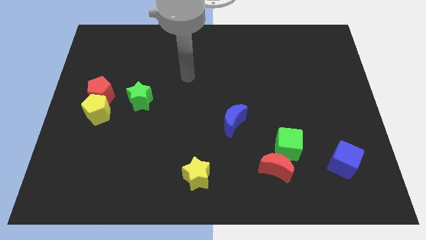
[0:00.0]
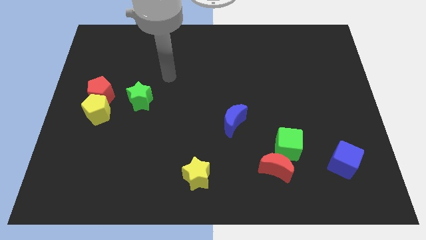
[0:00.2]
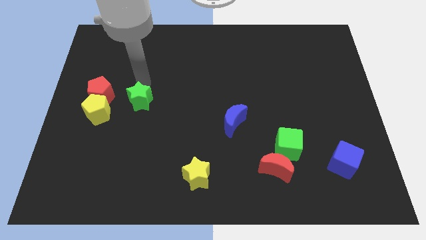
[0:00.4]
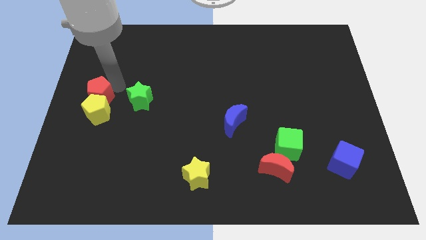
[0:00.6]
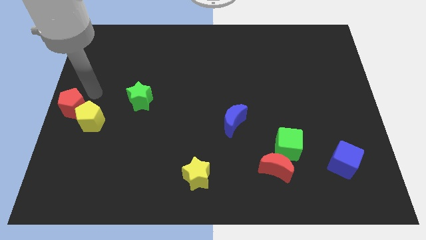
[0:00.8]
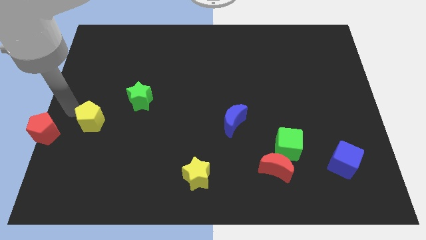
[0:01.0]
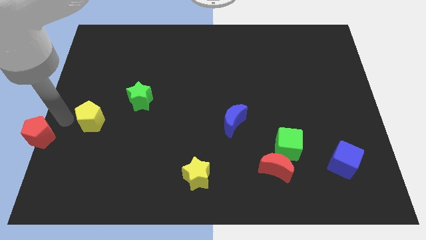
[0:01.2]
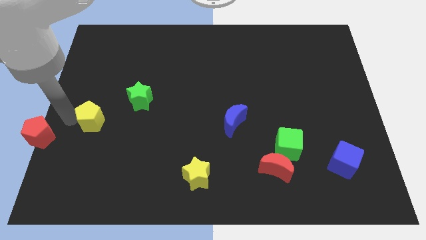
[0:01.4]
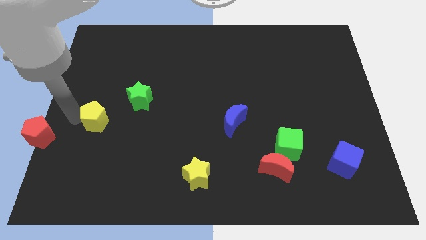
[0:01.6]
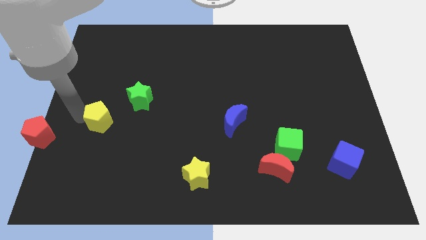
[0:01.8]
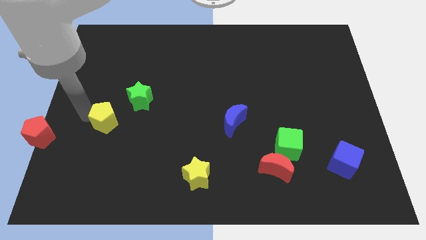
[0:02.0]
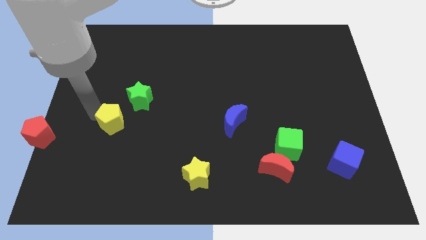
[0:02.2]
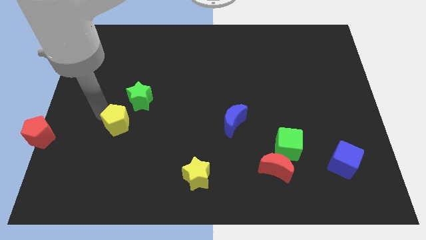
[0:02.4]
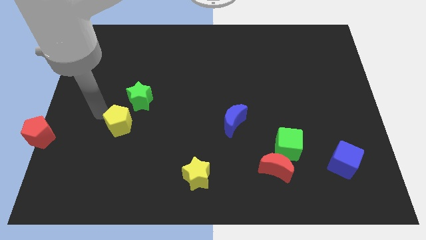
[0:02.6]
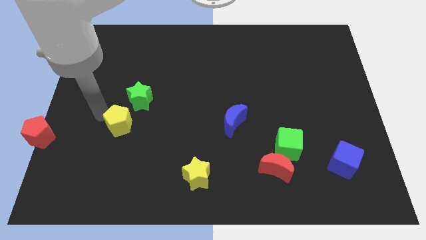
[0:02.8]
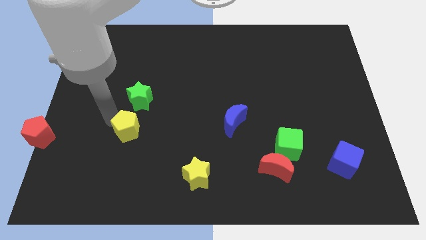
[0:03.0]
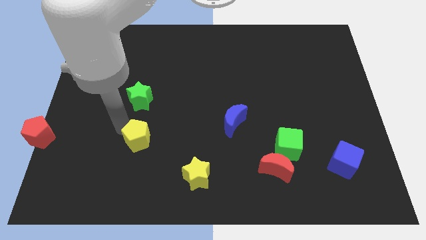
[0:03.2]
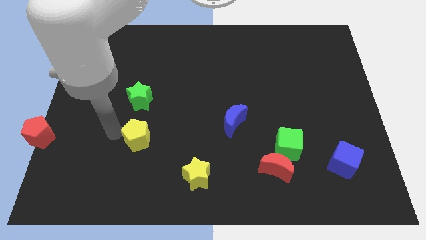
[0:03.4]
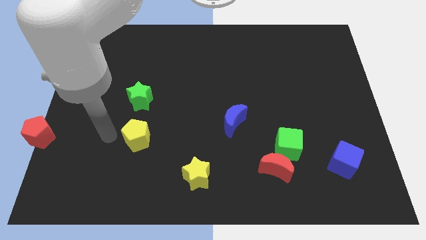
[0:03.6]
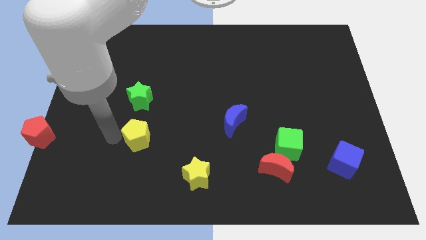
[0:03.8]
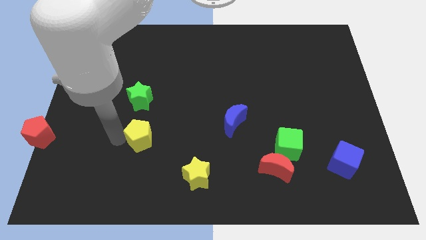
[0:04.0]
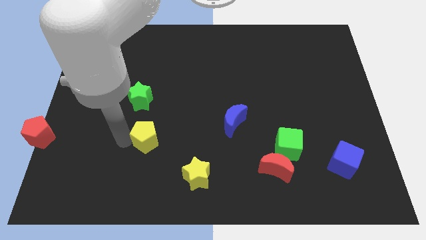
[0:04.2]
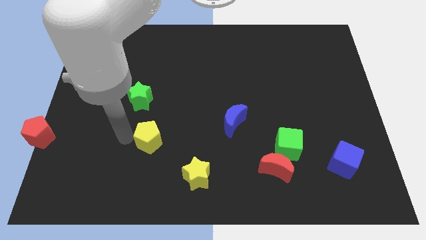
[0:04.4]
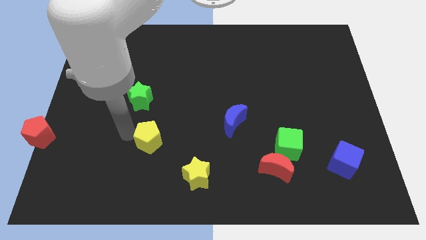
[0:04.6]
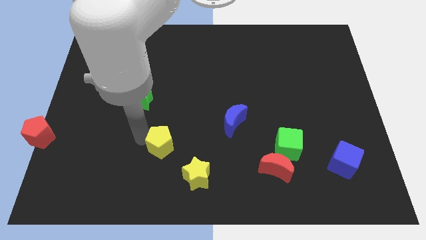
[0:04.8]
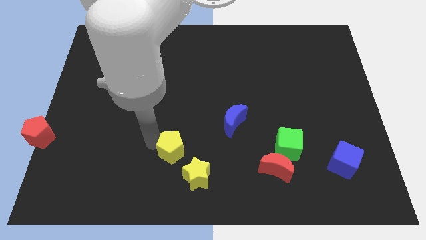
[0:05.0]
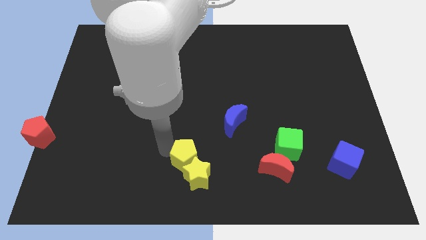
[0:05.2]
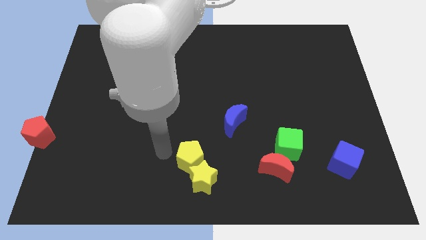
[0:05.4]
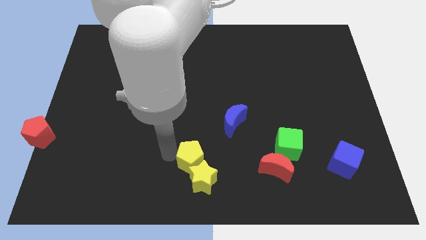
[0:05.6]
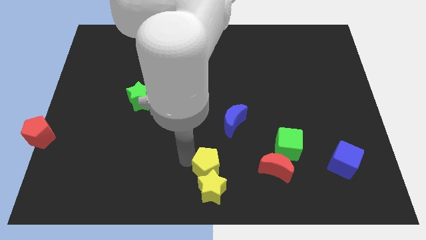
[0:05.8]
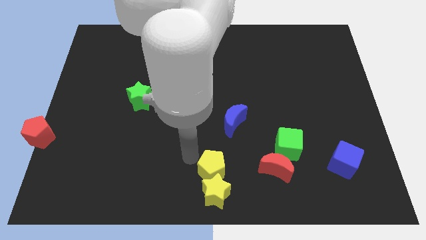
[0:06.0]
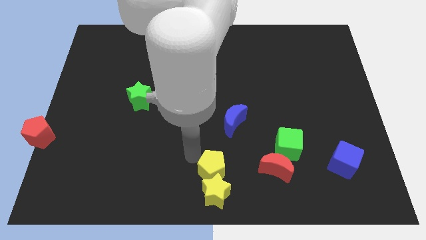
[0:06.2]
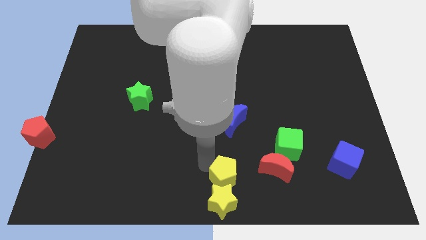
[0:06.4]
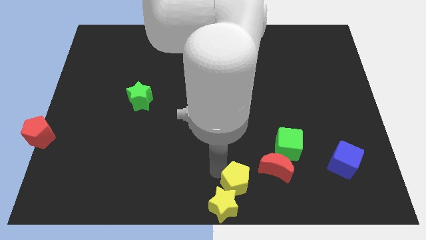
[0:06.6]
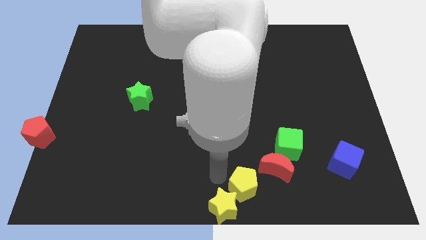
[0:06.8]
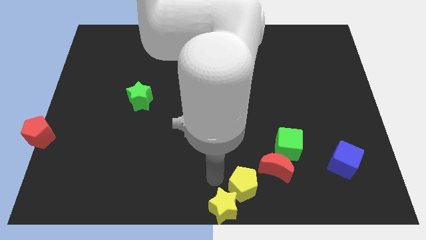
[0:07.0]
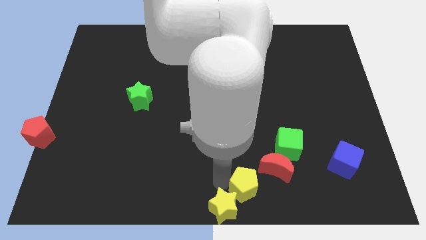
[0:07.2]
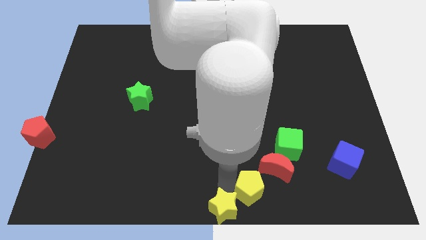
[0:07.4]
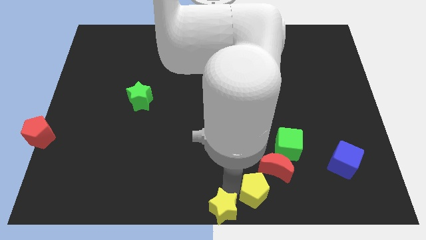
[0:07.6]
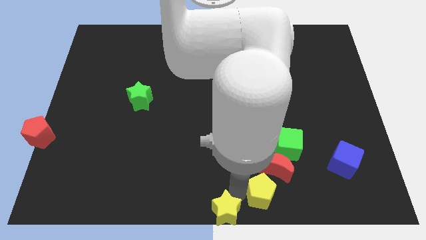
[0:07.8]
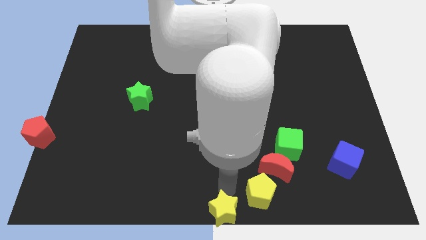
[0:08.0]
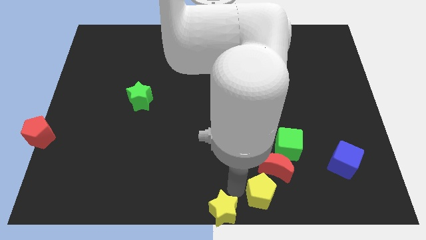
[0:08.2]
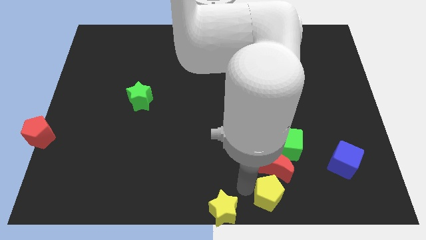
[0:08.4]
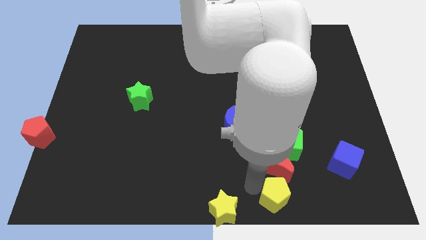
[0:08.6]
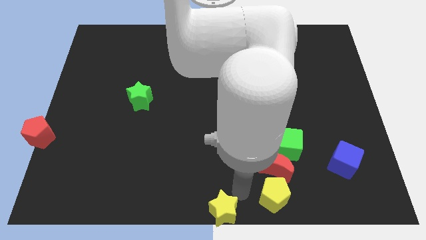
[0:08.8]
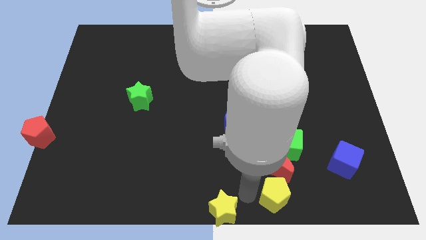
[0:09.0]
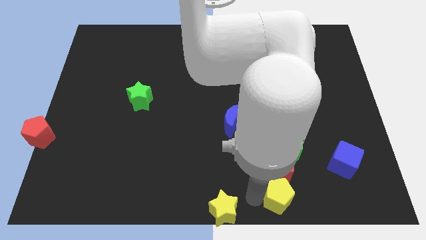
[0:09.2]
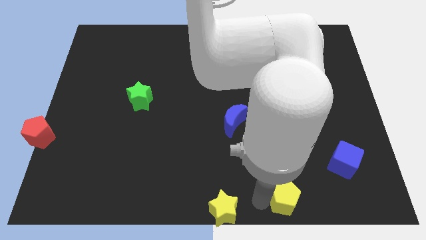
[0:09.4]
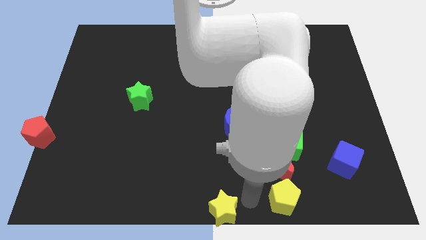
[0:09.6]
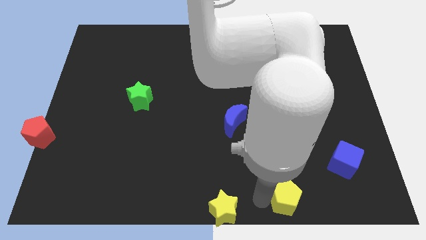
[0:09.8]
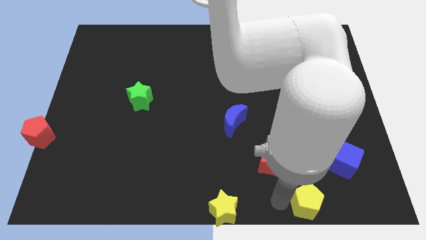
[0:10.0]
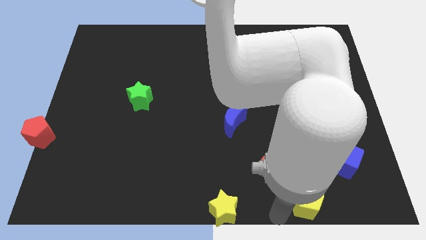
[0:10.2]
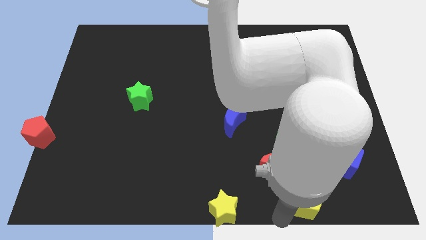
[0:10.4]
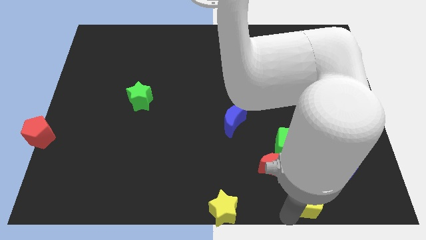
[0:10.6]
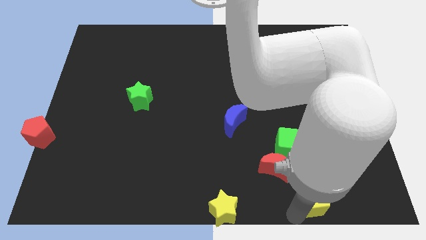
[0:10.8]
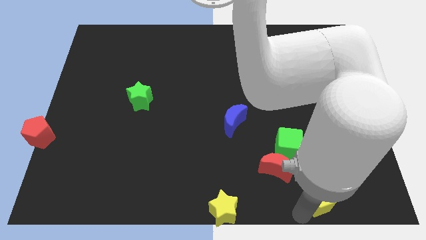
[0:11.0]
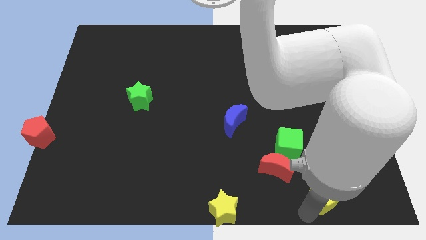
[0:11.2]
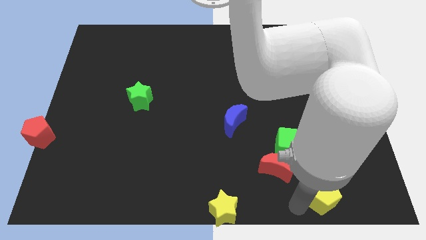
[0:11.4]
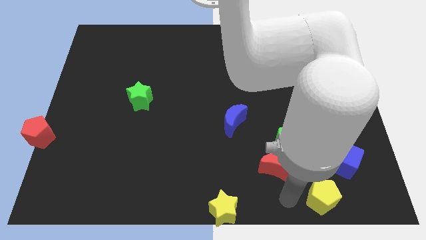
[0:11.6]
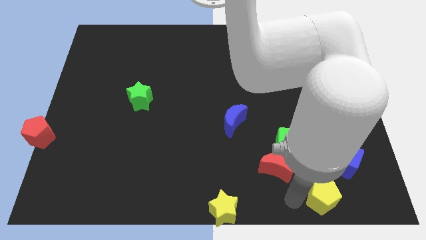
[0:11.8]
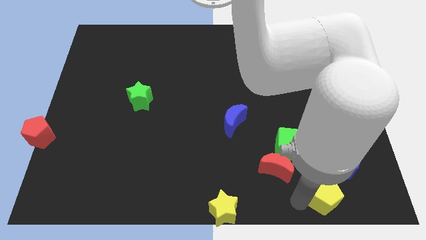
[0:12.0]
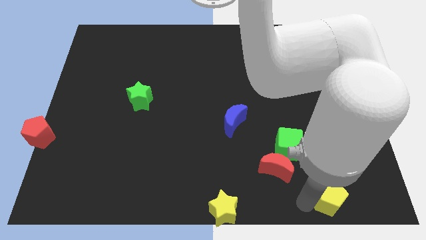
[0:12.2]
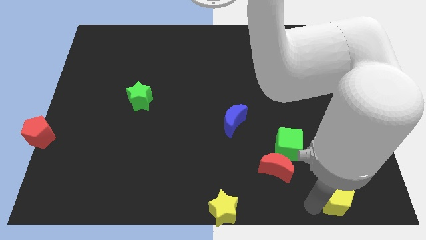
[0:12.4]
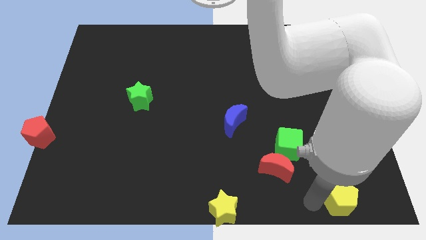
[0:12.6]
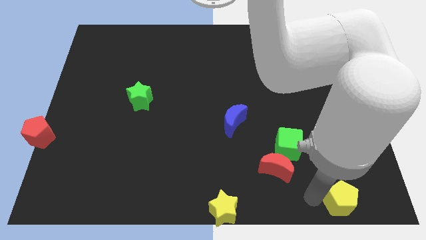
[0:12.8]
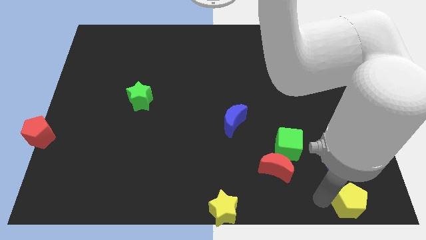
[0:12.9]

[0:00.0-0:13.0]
push the yellow pentagon to the bottom right
